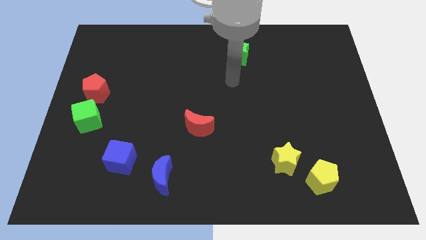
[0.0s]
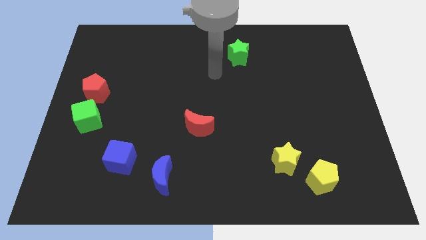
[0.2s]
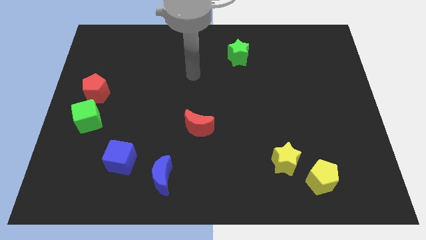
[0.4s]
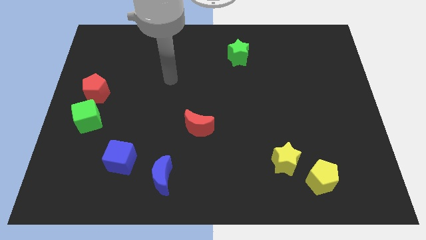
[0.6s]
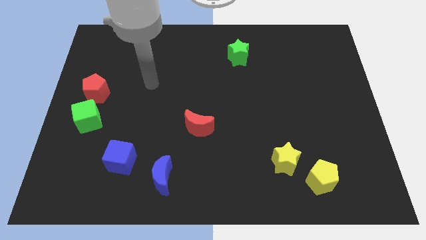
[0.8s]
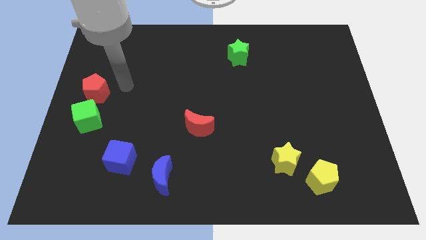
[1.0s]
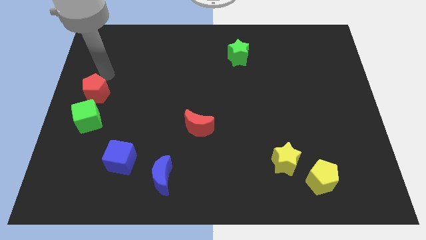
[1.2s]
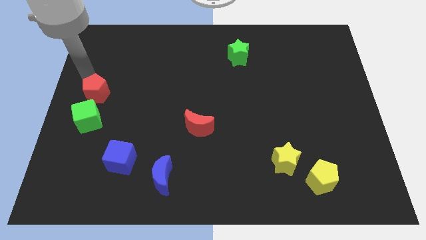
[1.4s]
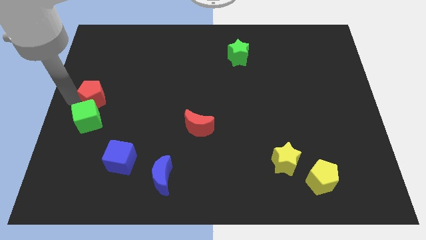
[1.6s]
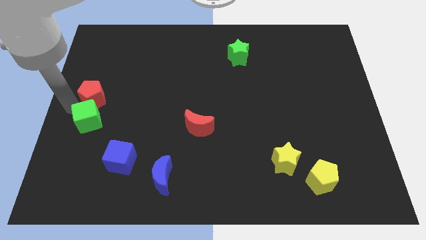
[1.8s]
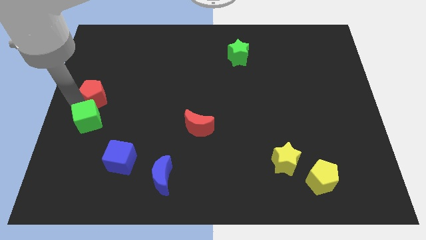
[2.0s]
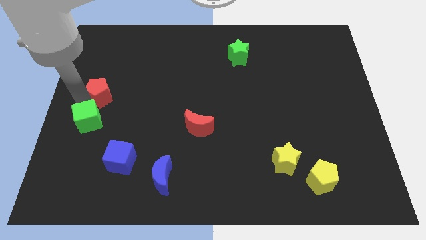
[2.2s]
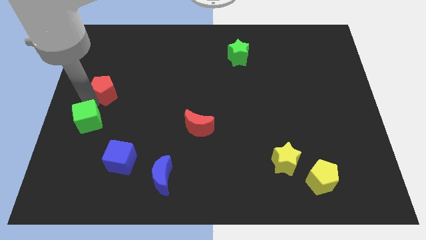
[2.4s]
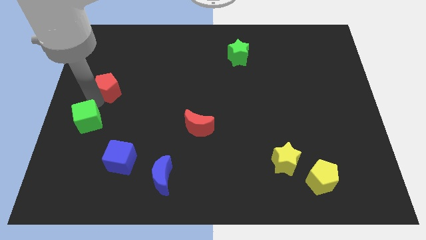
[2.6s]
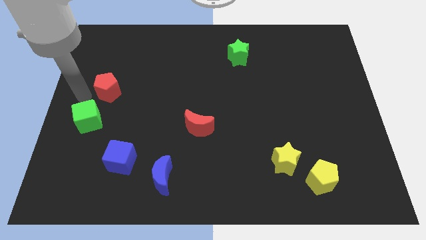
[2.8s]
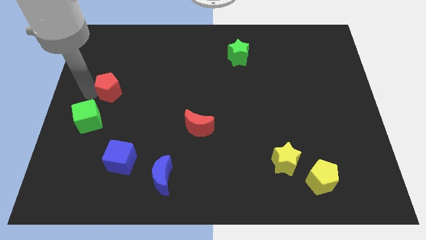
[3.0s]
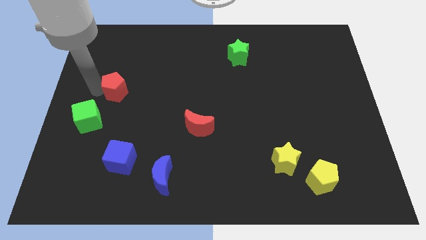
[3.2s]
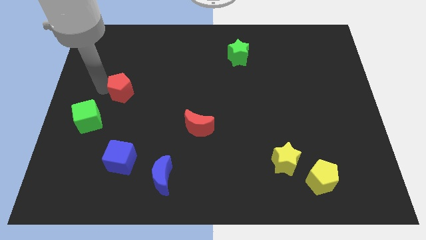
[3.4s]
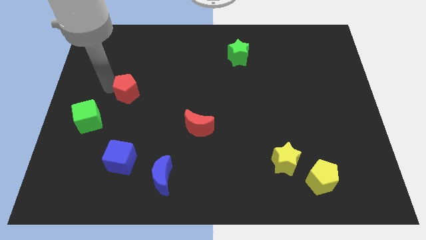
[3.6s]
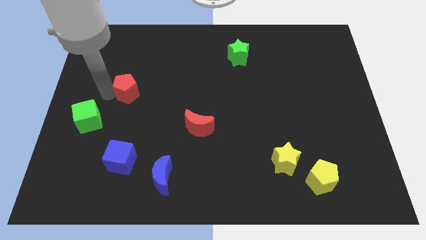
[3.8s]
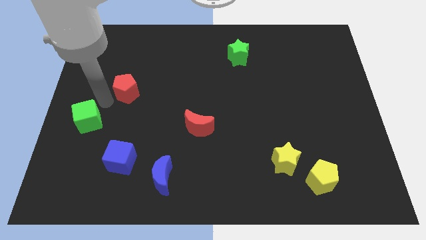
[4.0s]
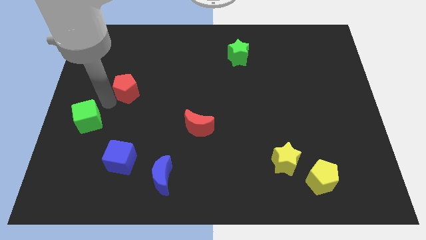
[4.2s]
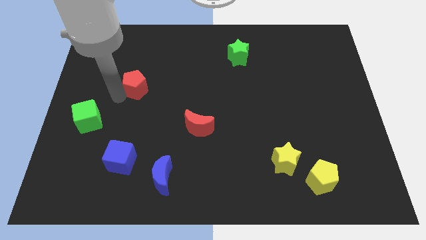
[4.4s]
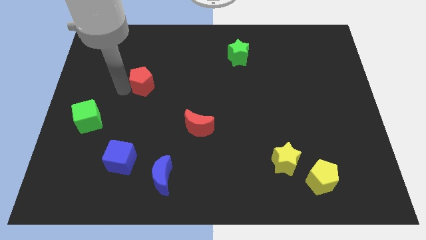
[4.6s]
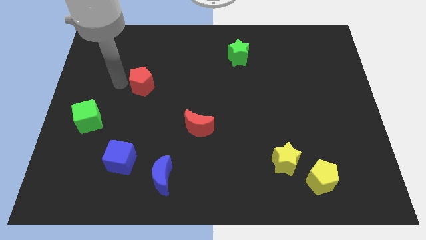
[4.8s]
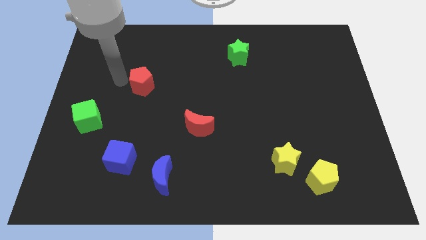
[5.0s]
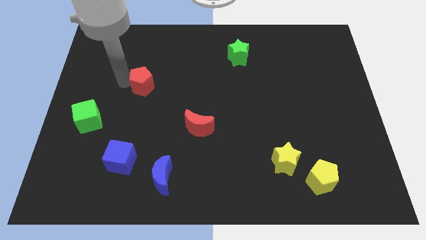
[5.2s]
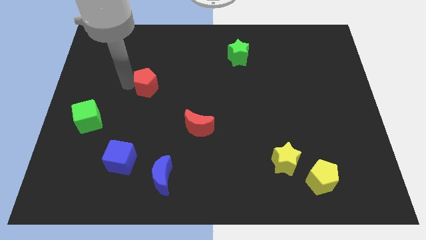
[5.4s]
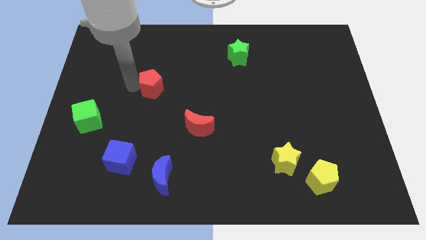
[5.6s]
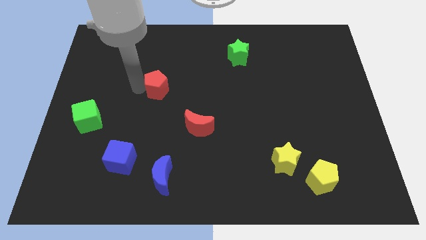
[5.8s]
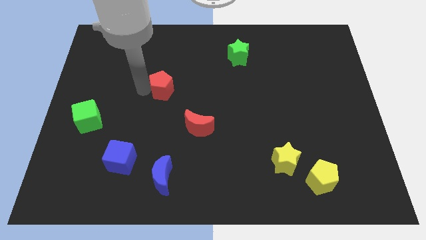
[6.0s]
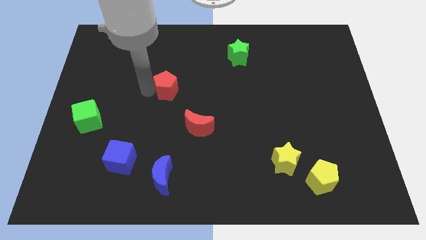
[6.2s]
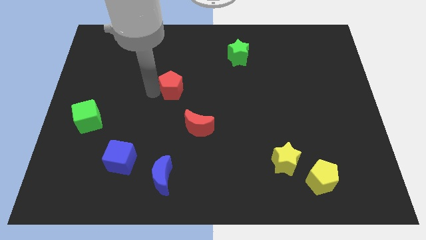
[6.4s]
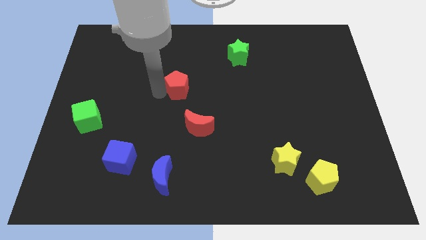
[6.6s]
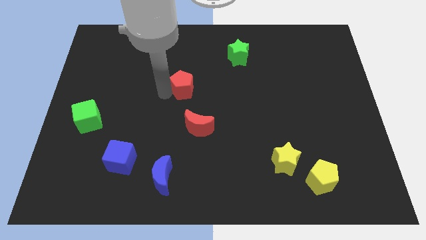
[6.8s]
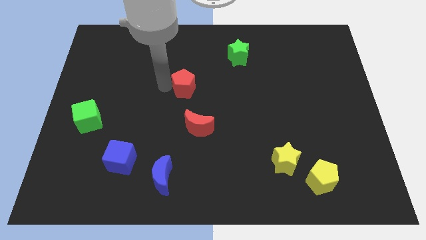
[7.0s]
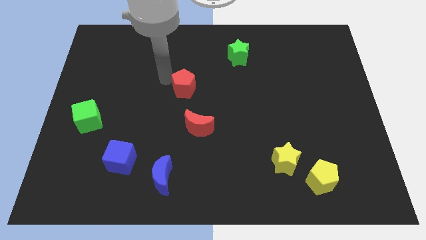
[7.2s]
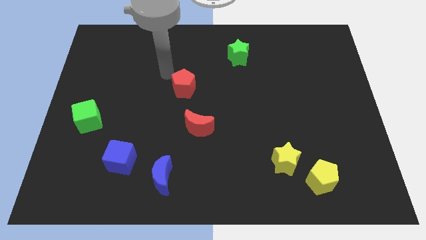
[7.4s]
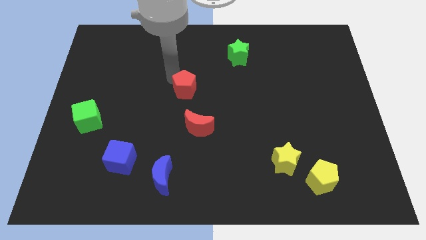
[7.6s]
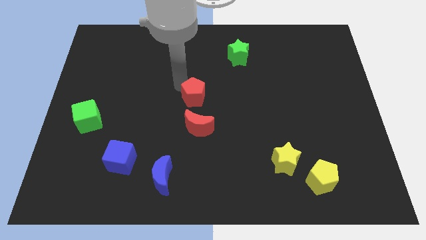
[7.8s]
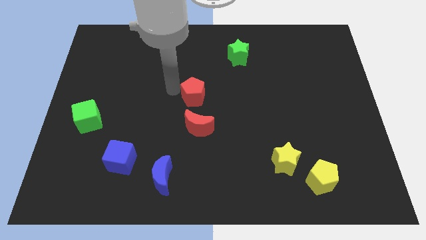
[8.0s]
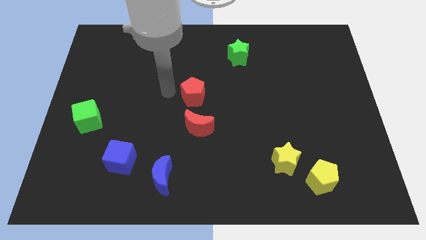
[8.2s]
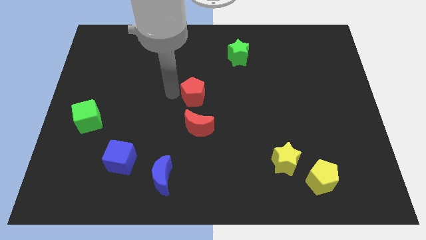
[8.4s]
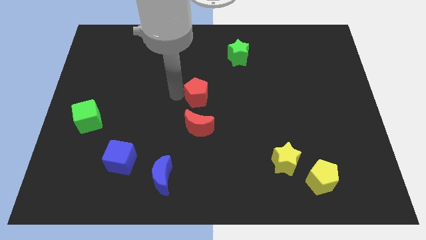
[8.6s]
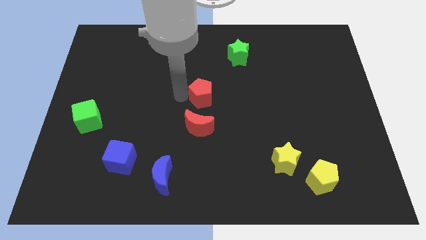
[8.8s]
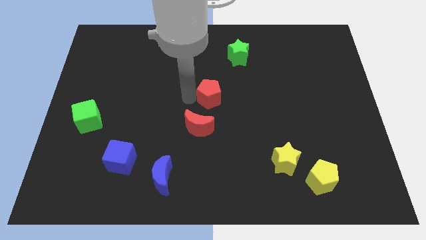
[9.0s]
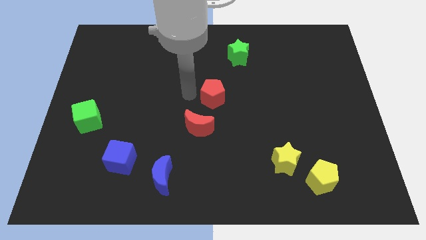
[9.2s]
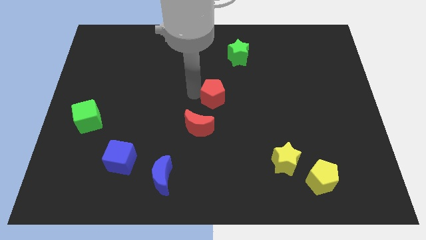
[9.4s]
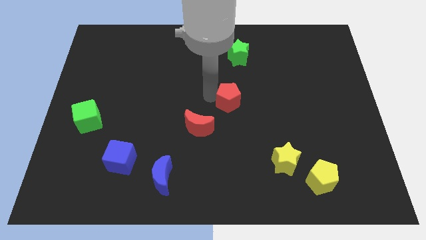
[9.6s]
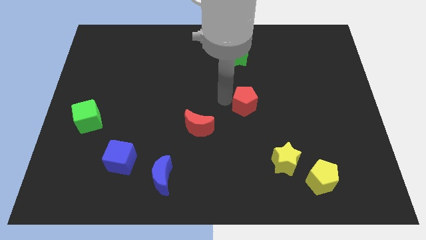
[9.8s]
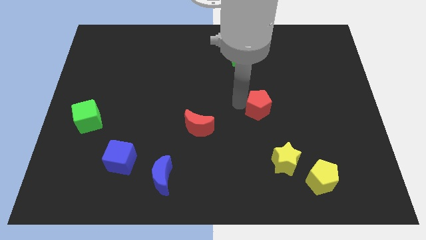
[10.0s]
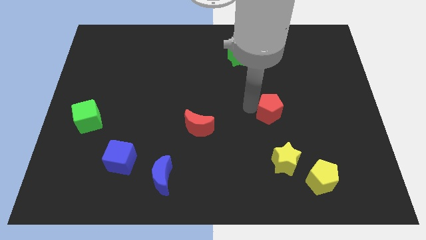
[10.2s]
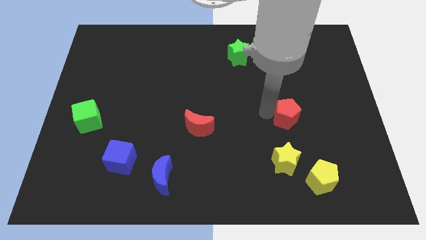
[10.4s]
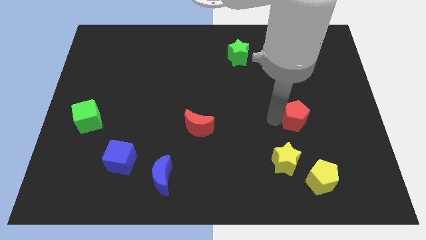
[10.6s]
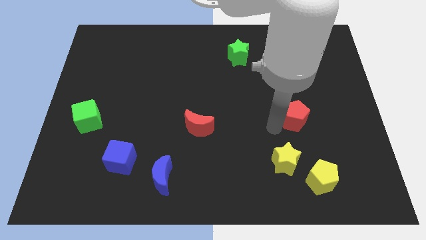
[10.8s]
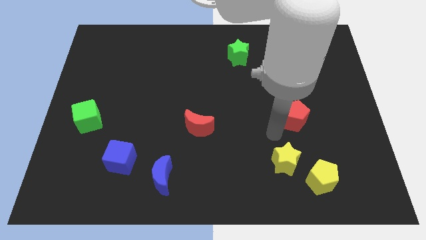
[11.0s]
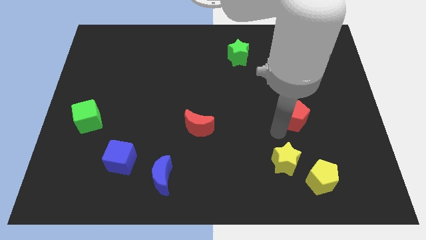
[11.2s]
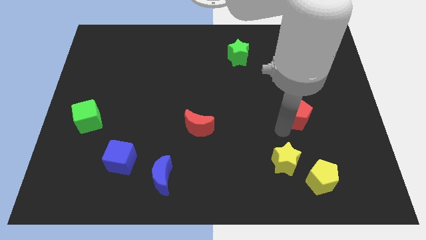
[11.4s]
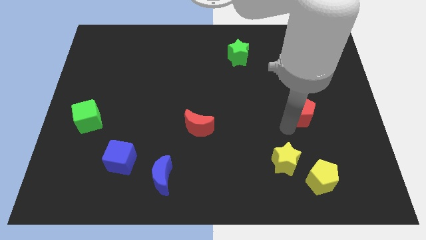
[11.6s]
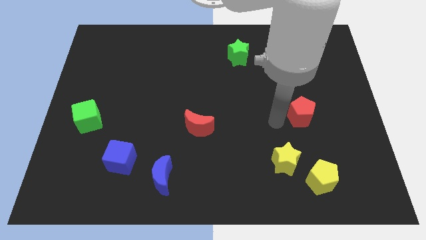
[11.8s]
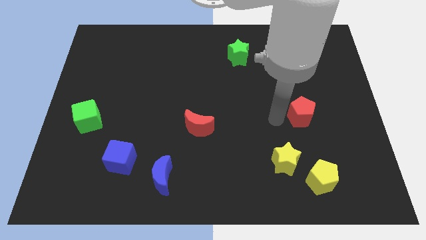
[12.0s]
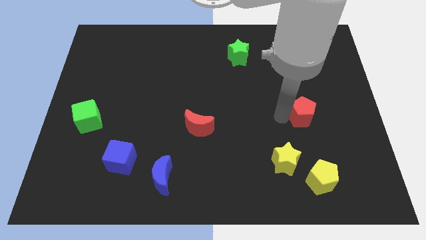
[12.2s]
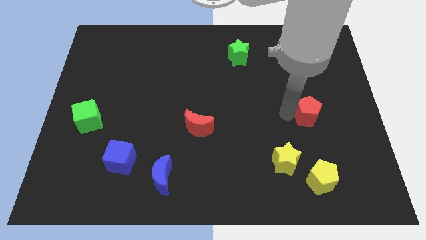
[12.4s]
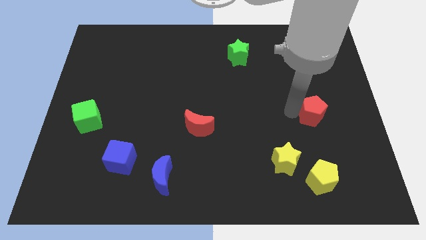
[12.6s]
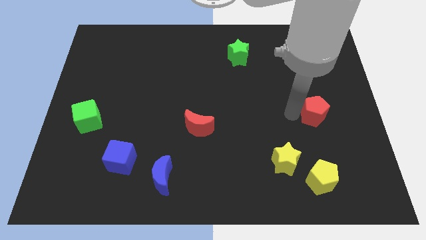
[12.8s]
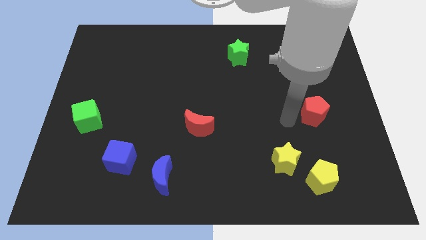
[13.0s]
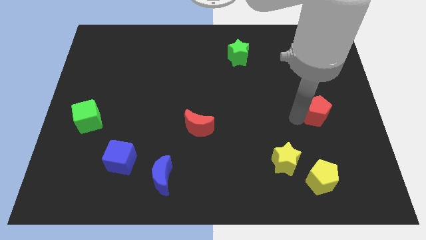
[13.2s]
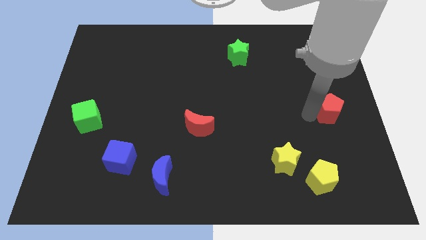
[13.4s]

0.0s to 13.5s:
slide the red pentagon to the right side
